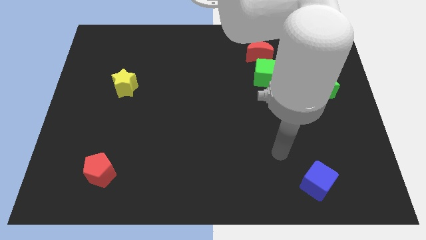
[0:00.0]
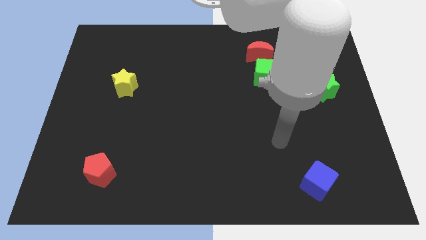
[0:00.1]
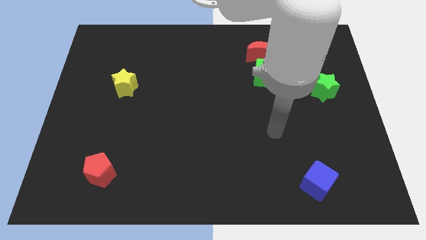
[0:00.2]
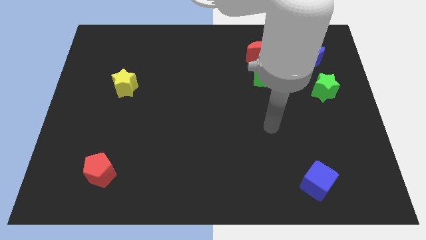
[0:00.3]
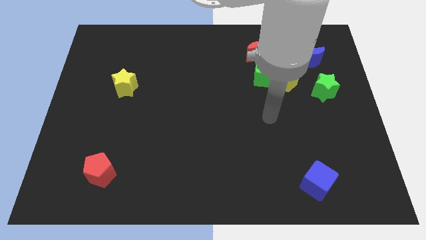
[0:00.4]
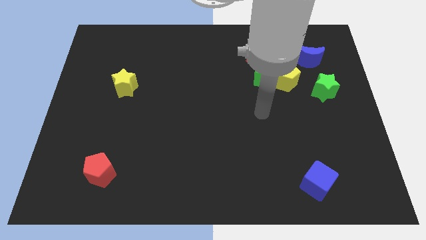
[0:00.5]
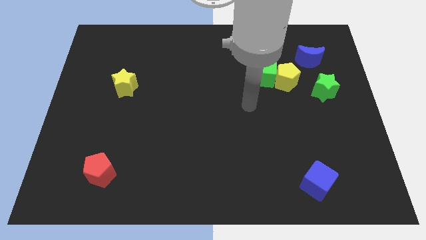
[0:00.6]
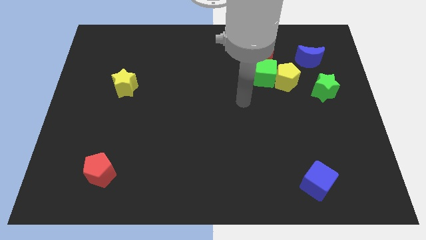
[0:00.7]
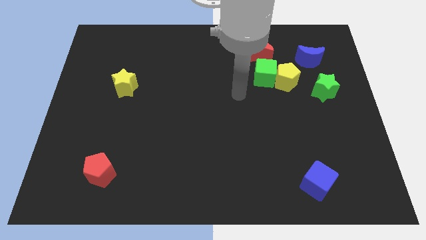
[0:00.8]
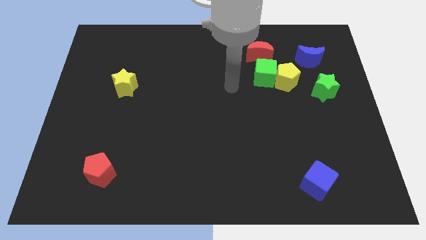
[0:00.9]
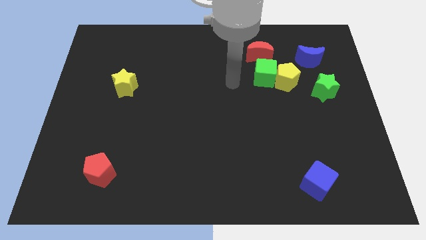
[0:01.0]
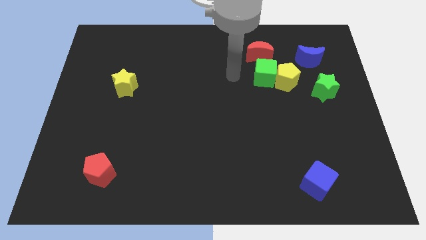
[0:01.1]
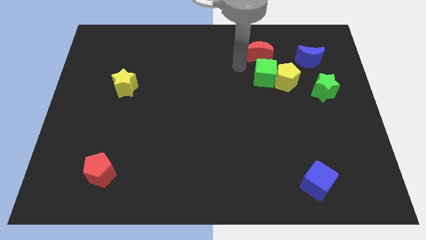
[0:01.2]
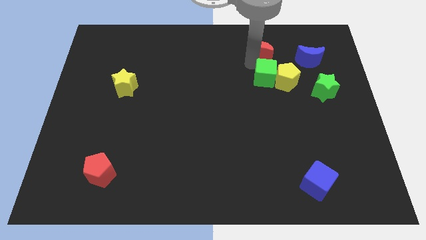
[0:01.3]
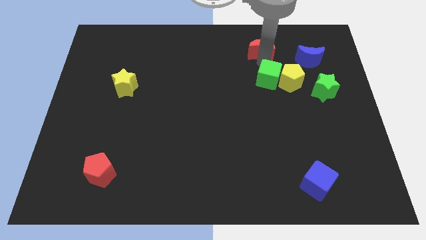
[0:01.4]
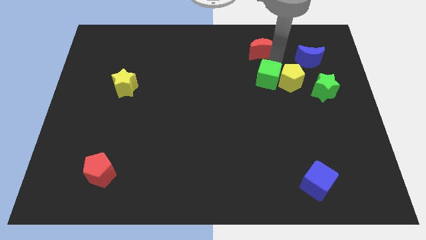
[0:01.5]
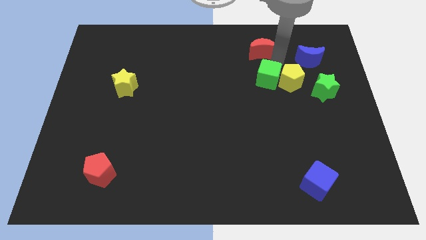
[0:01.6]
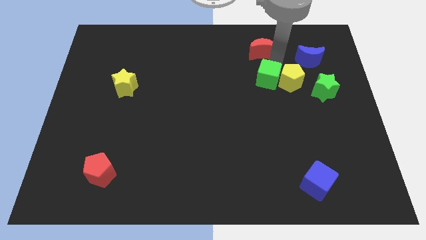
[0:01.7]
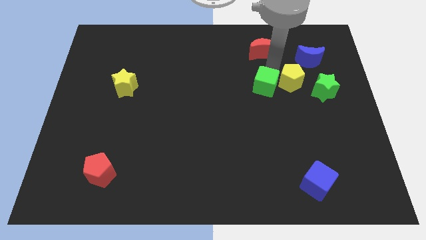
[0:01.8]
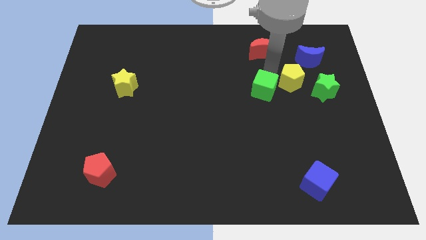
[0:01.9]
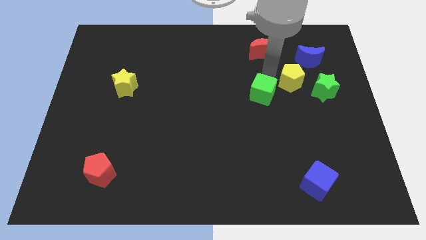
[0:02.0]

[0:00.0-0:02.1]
pull the green cube apart from the yellow pentagon and red moon

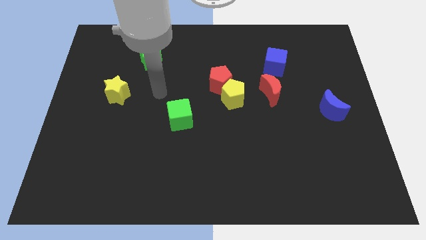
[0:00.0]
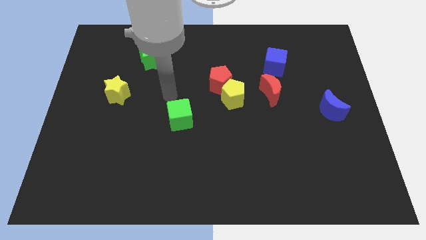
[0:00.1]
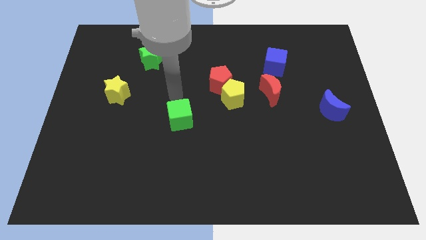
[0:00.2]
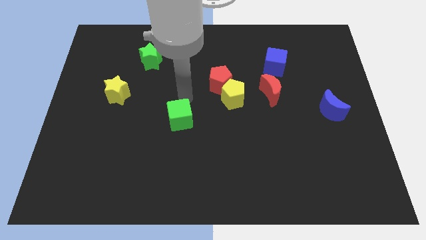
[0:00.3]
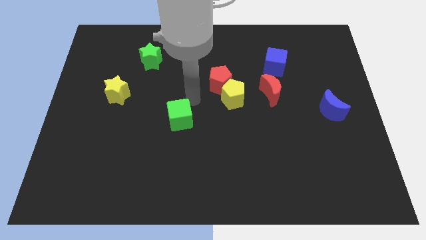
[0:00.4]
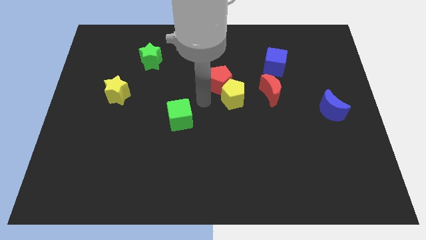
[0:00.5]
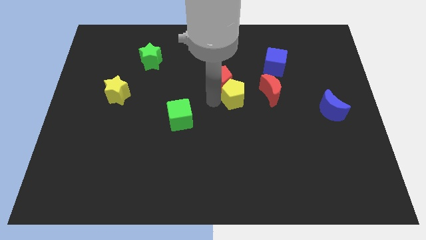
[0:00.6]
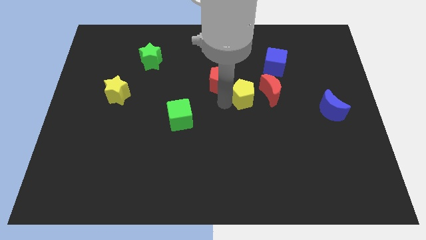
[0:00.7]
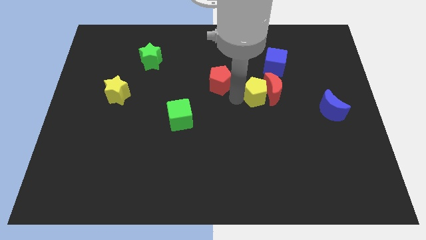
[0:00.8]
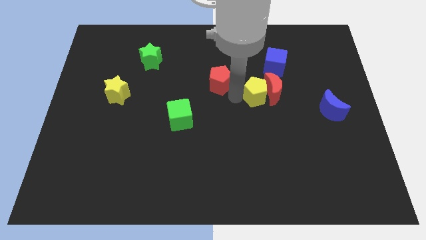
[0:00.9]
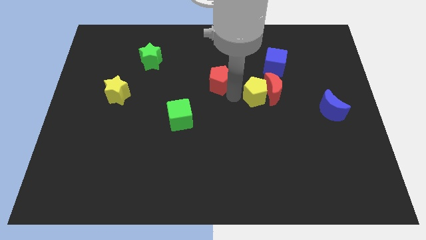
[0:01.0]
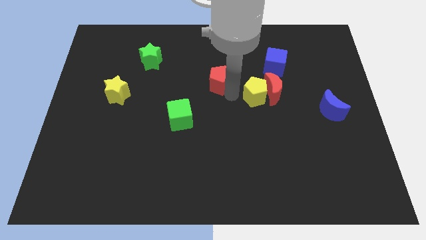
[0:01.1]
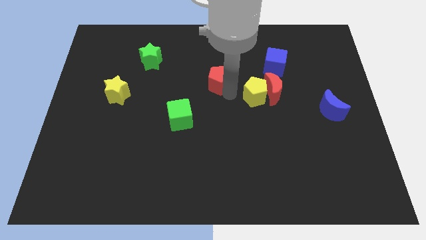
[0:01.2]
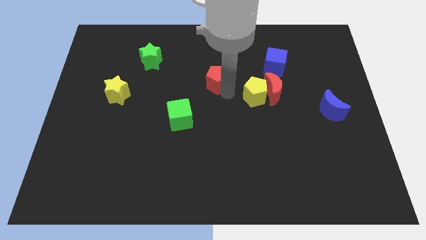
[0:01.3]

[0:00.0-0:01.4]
move the red pentagon away from the yellow pentagon

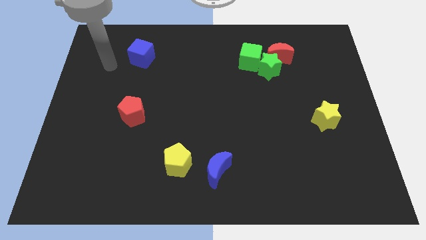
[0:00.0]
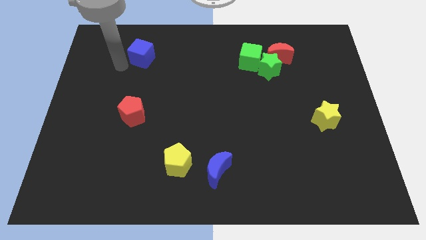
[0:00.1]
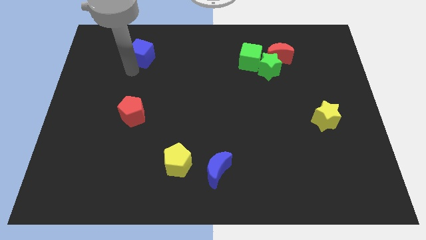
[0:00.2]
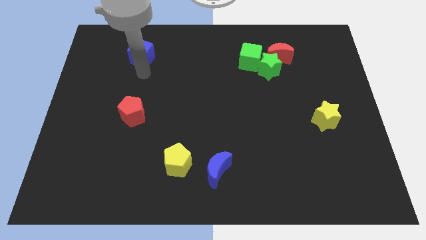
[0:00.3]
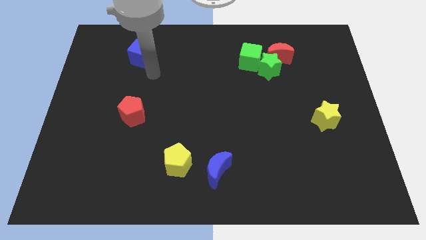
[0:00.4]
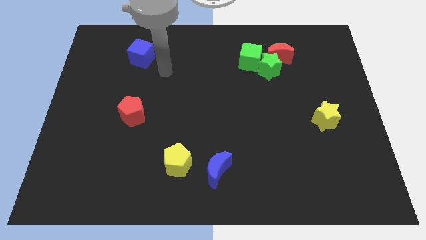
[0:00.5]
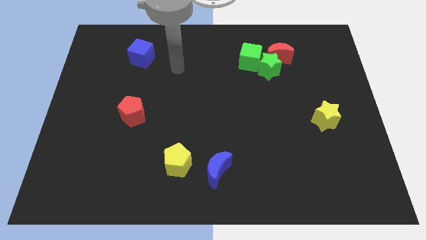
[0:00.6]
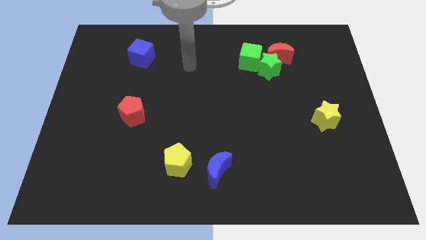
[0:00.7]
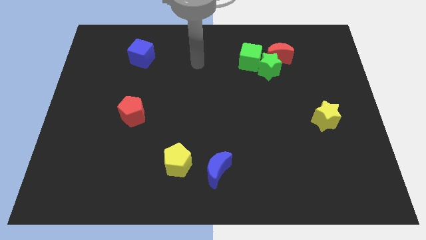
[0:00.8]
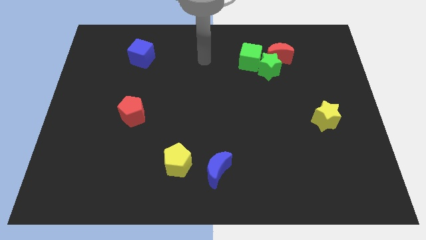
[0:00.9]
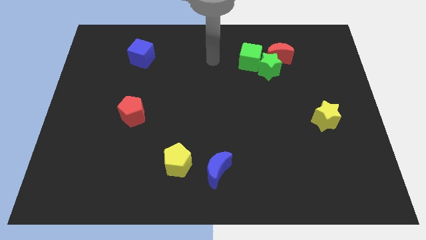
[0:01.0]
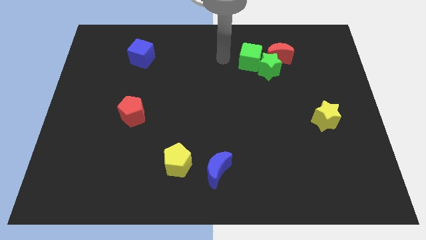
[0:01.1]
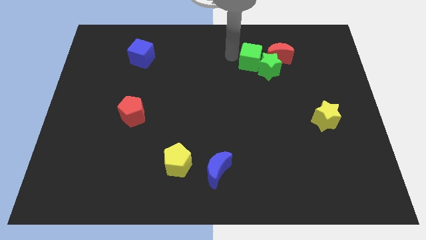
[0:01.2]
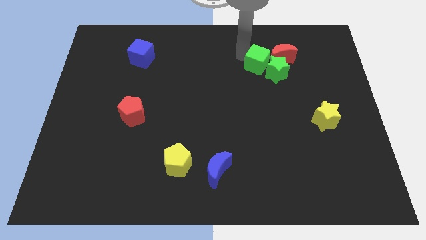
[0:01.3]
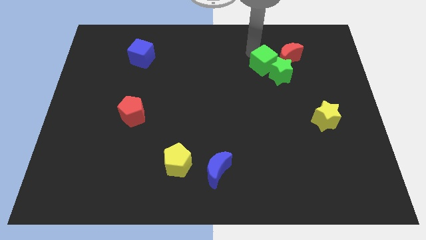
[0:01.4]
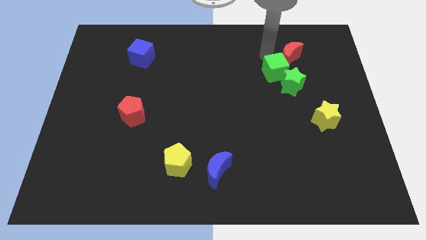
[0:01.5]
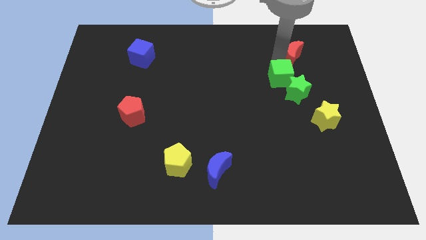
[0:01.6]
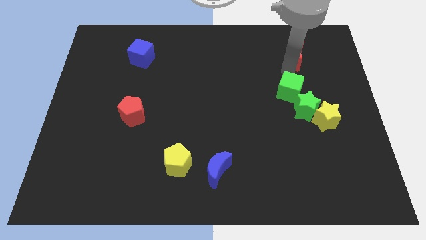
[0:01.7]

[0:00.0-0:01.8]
move the green star away from the green cube and red moon

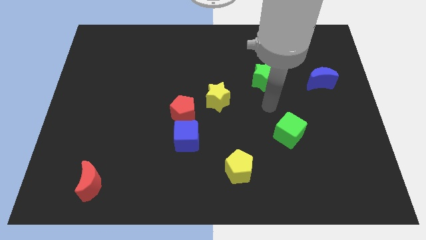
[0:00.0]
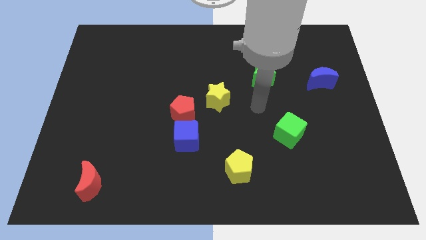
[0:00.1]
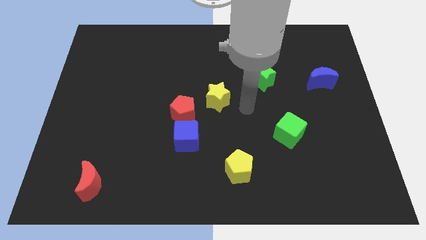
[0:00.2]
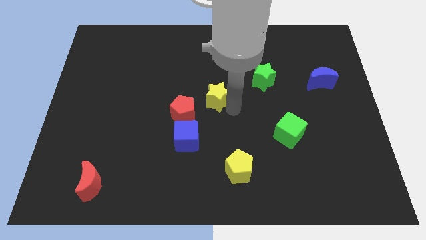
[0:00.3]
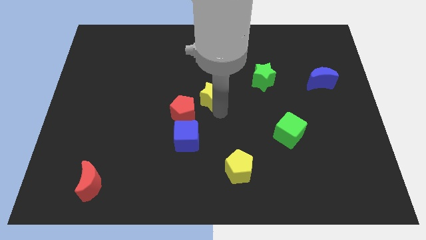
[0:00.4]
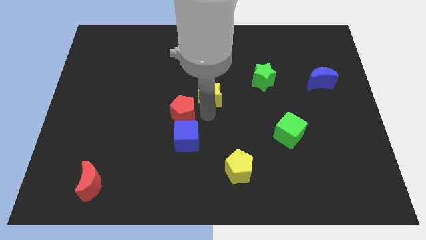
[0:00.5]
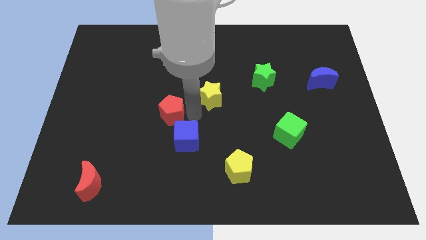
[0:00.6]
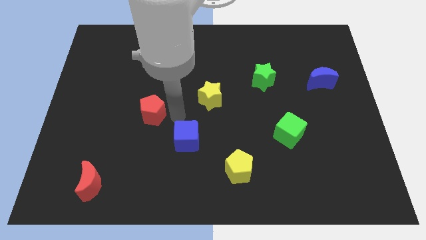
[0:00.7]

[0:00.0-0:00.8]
pull the blue cube apart from the red pentagon

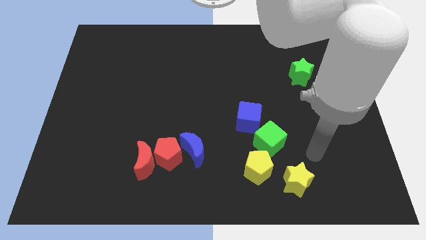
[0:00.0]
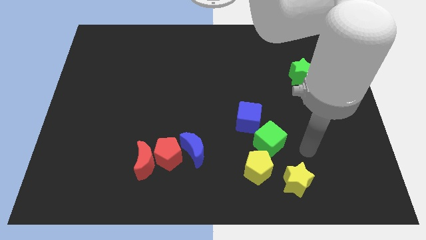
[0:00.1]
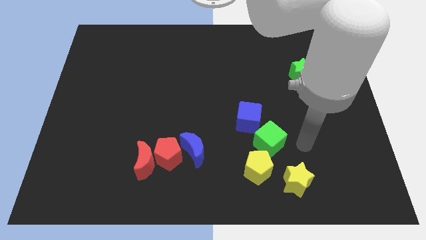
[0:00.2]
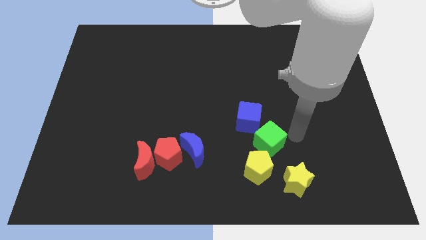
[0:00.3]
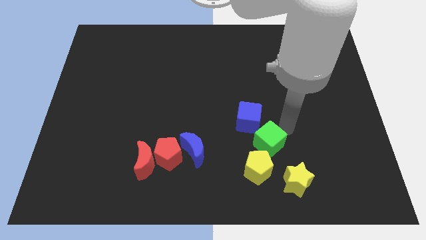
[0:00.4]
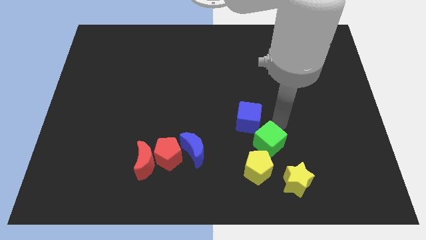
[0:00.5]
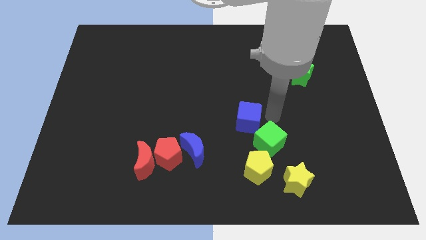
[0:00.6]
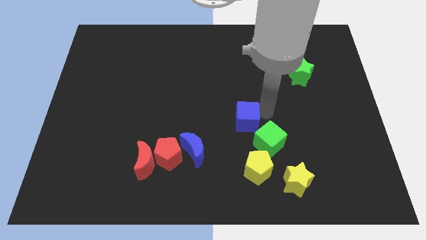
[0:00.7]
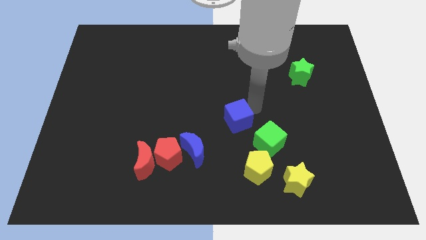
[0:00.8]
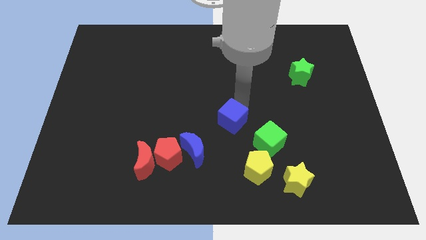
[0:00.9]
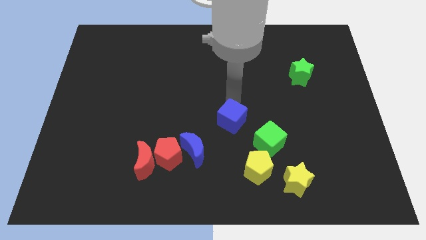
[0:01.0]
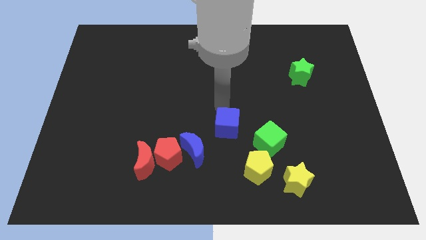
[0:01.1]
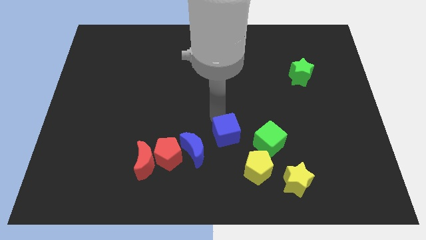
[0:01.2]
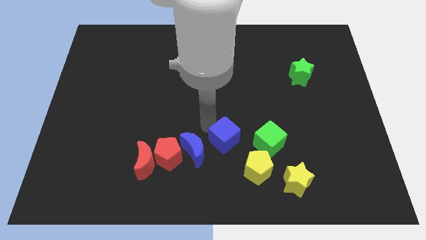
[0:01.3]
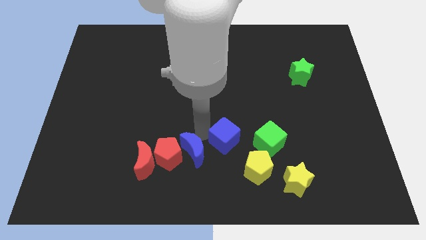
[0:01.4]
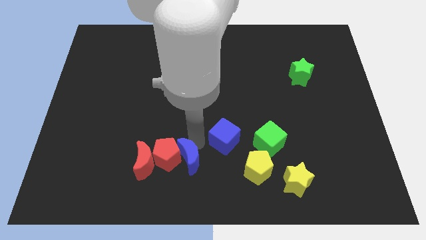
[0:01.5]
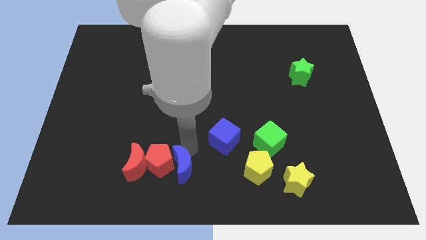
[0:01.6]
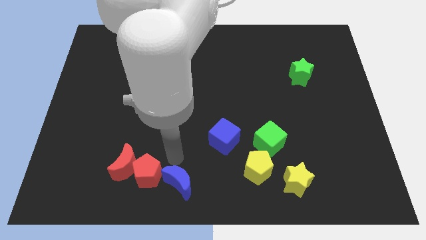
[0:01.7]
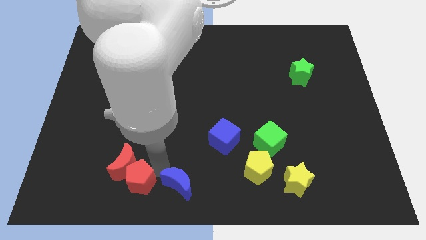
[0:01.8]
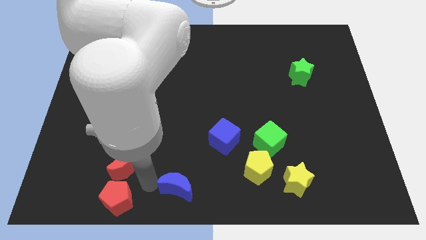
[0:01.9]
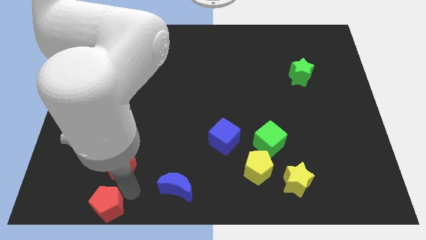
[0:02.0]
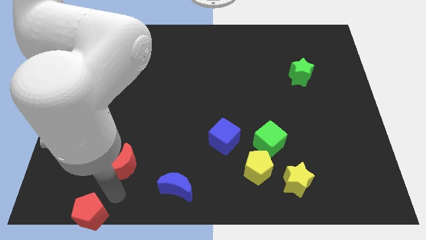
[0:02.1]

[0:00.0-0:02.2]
move the red moon away from the red pentagon

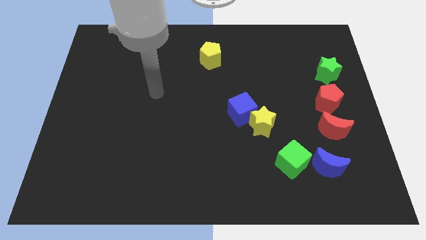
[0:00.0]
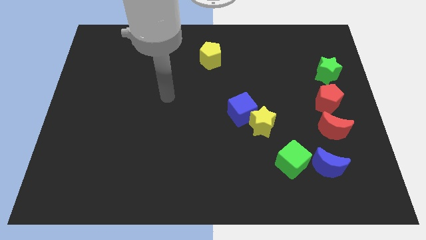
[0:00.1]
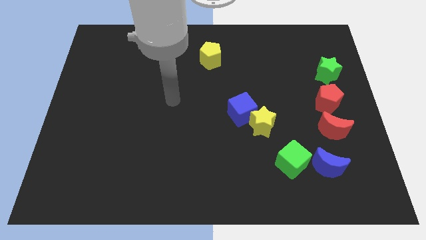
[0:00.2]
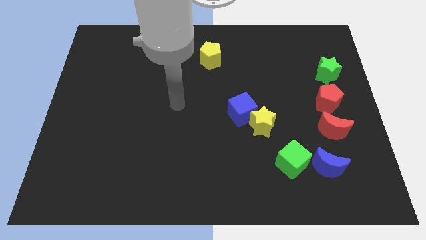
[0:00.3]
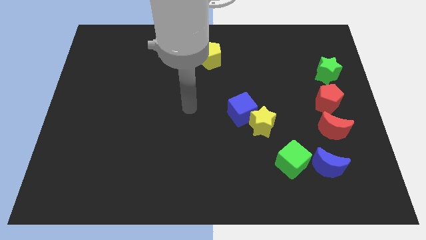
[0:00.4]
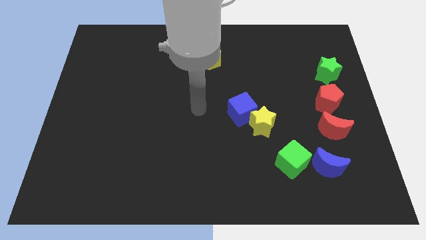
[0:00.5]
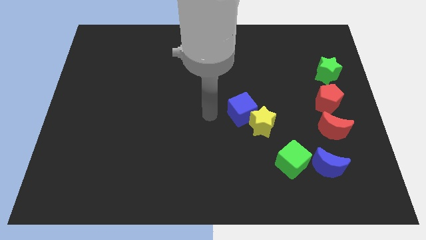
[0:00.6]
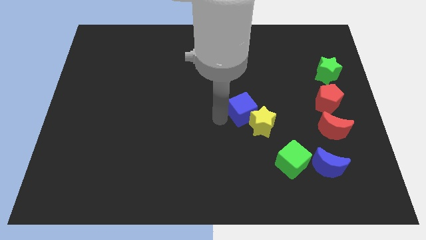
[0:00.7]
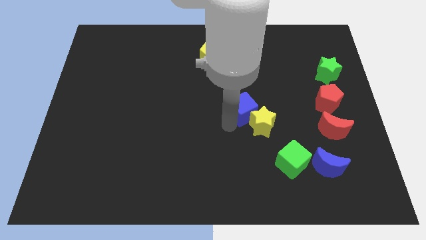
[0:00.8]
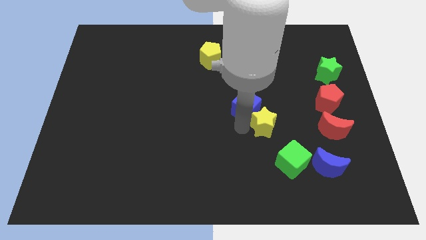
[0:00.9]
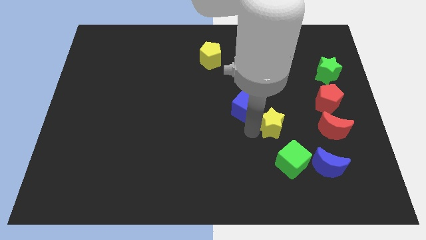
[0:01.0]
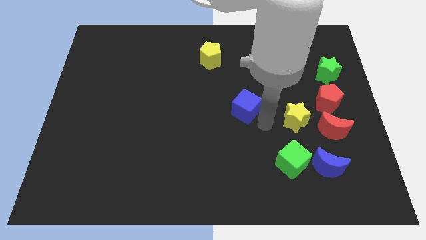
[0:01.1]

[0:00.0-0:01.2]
separate the blue cube from the yellow star
